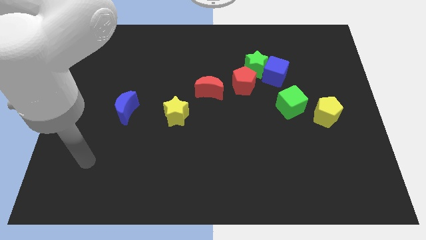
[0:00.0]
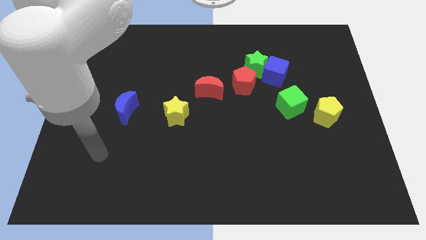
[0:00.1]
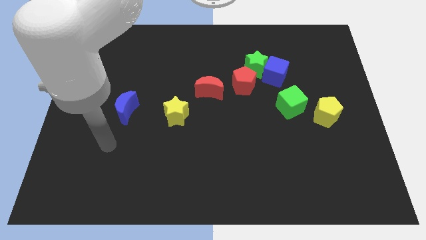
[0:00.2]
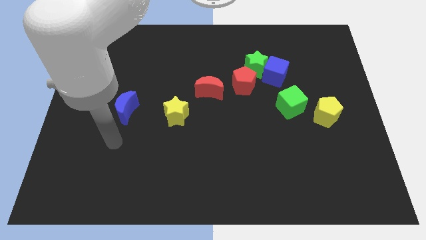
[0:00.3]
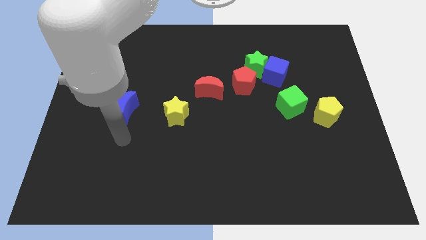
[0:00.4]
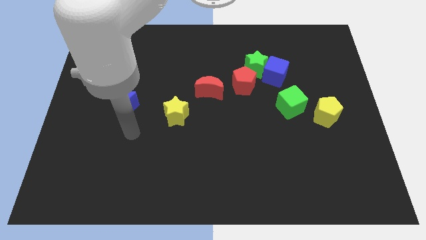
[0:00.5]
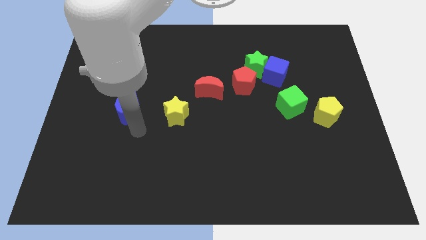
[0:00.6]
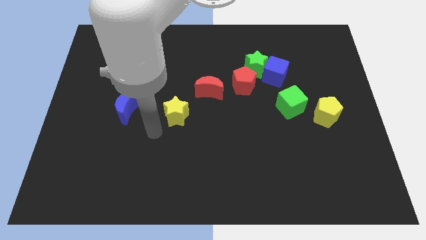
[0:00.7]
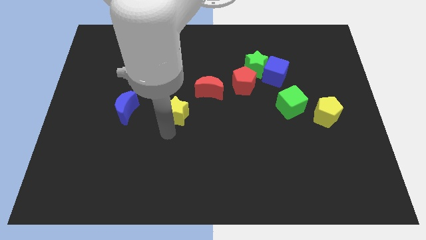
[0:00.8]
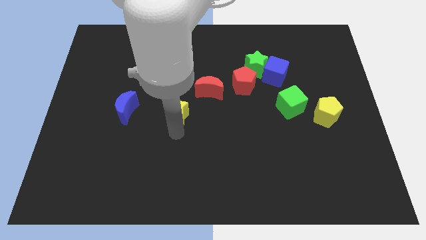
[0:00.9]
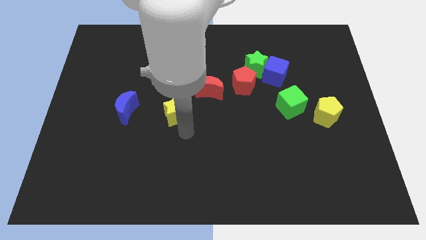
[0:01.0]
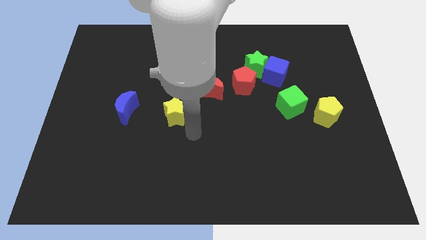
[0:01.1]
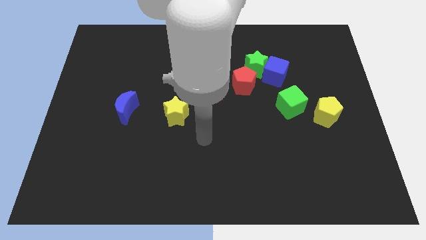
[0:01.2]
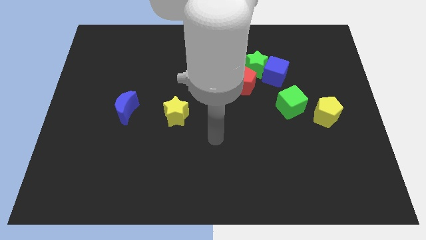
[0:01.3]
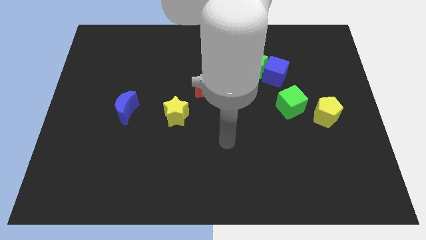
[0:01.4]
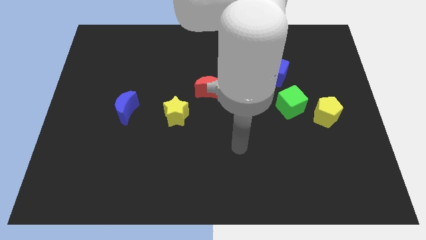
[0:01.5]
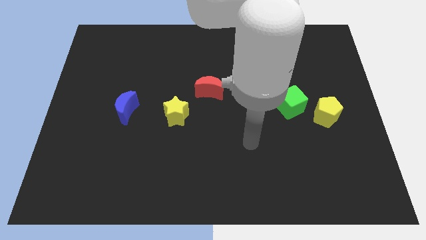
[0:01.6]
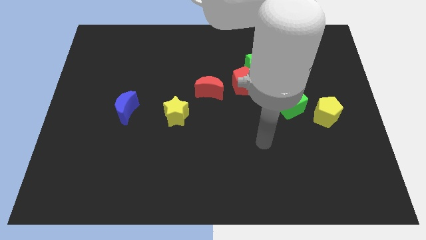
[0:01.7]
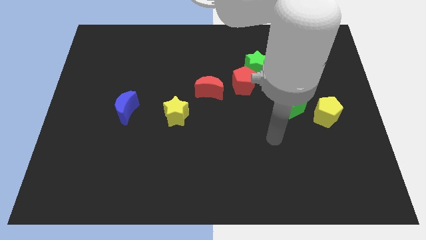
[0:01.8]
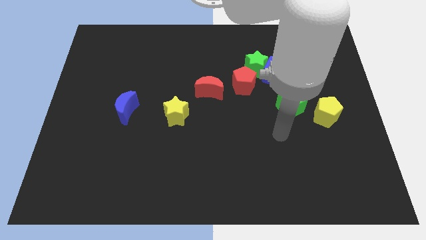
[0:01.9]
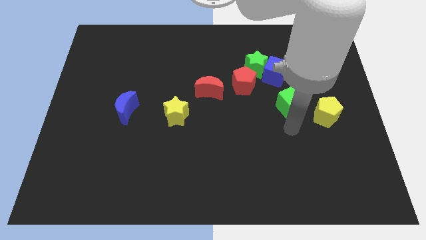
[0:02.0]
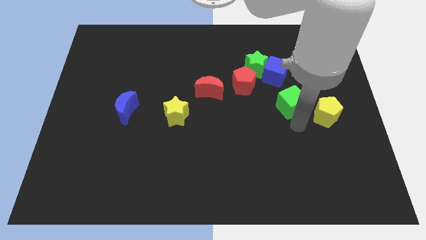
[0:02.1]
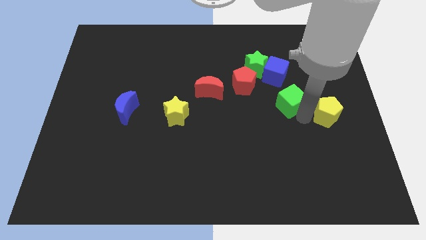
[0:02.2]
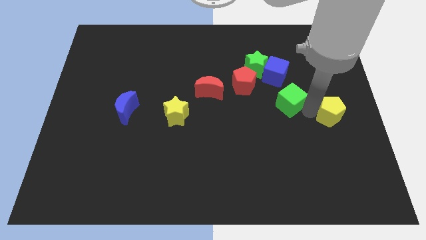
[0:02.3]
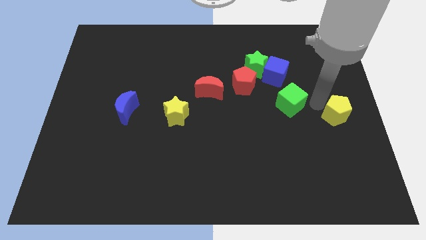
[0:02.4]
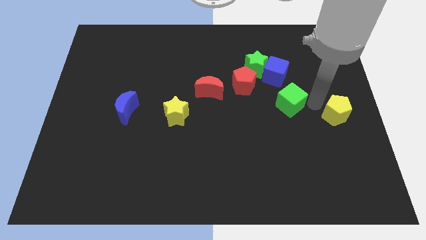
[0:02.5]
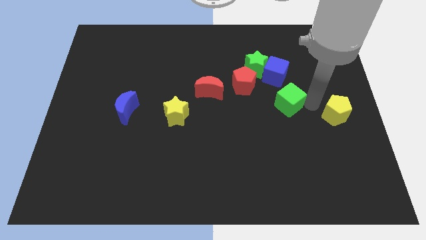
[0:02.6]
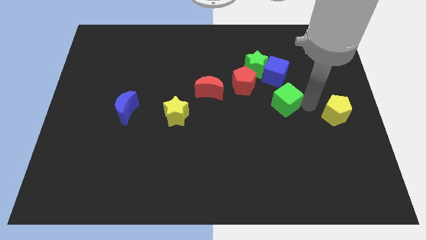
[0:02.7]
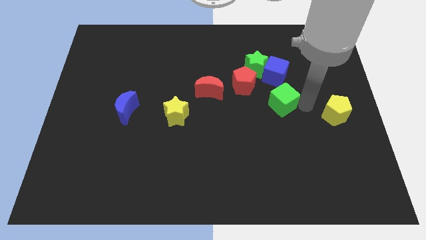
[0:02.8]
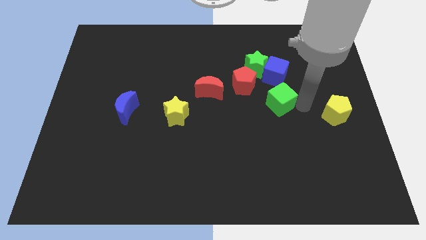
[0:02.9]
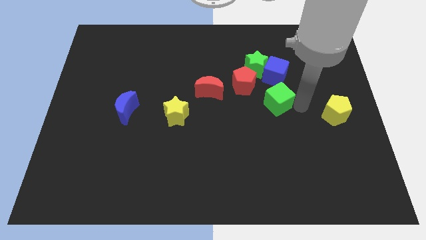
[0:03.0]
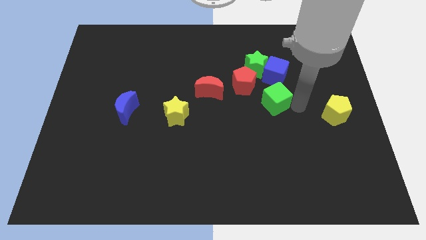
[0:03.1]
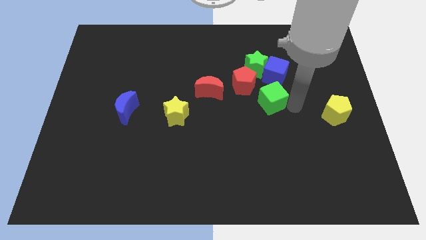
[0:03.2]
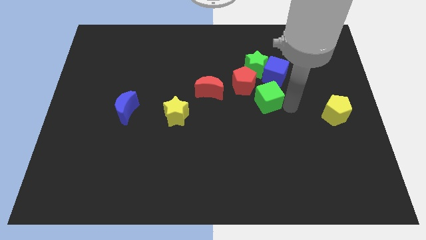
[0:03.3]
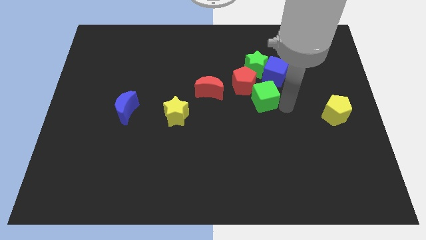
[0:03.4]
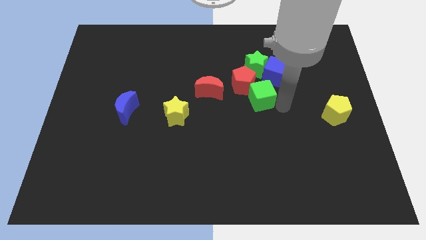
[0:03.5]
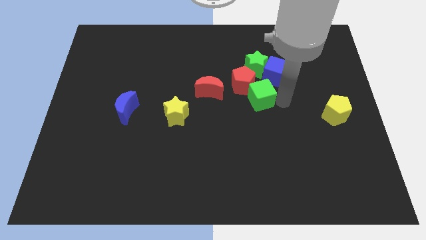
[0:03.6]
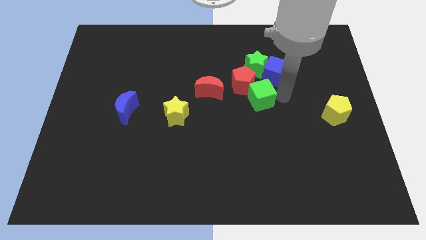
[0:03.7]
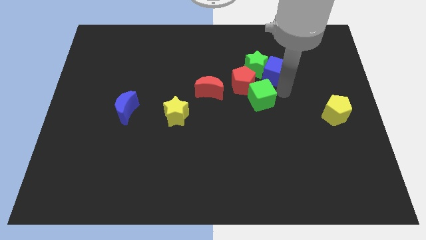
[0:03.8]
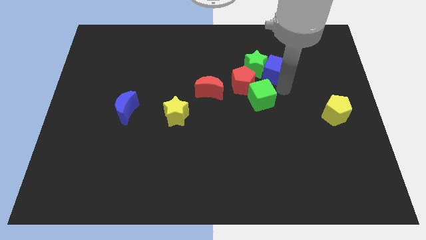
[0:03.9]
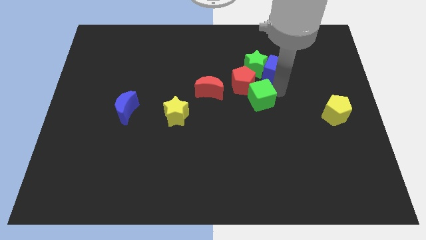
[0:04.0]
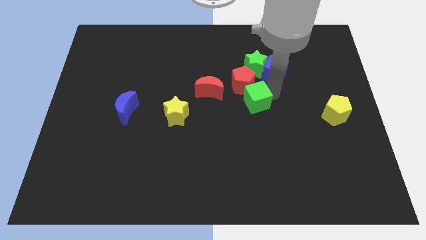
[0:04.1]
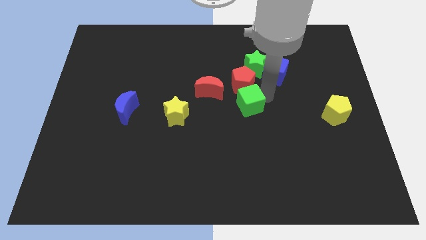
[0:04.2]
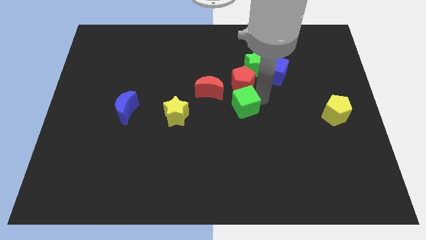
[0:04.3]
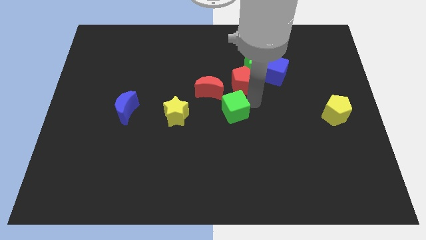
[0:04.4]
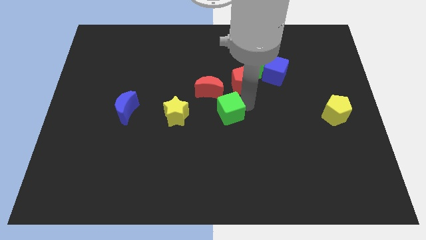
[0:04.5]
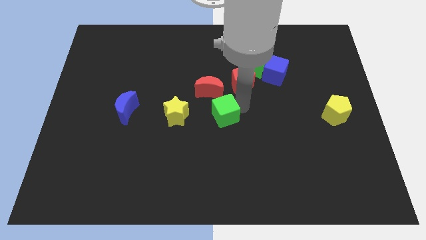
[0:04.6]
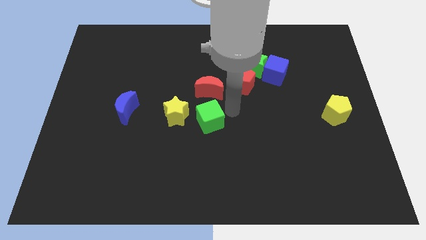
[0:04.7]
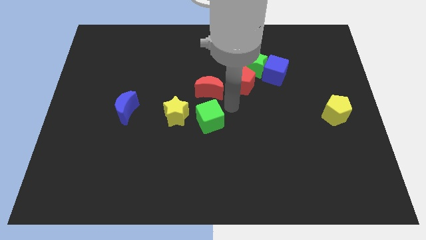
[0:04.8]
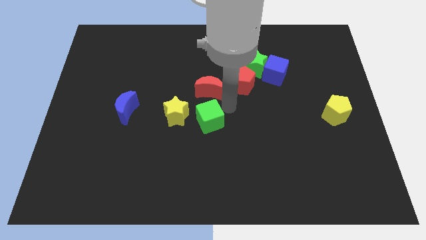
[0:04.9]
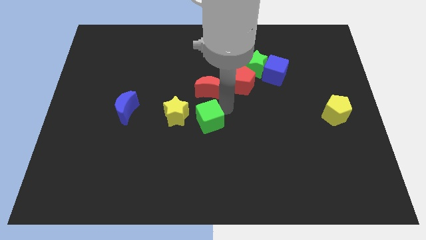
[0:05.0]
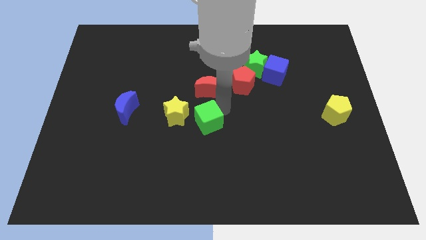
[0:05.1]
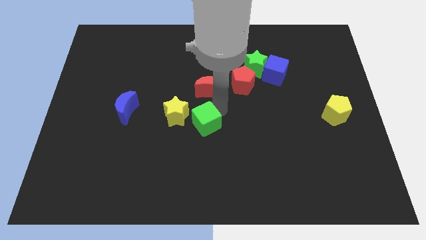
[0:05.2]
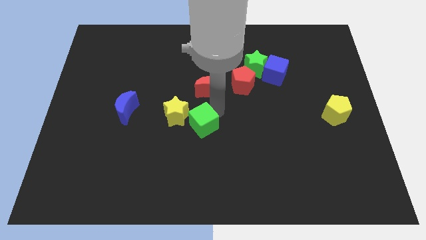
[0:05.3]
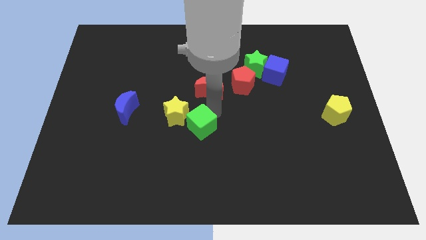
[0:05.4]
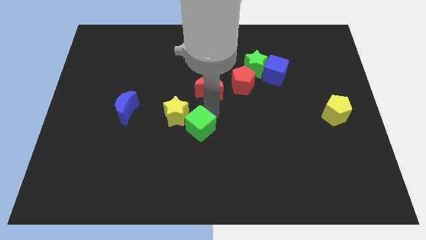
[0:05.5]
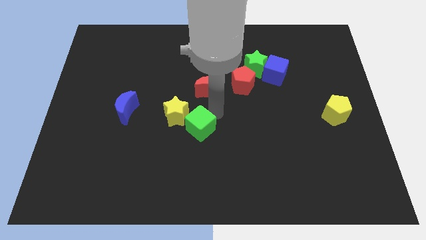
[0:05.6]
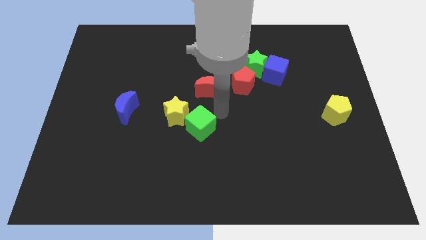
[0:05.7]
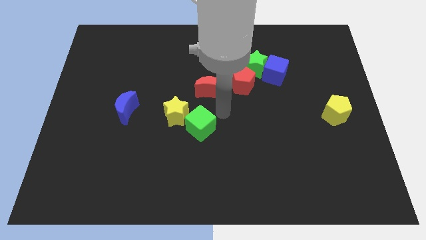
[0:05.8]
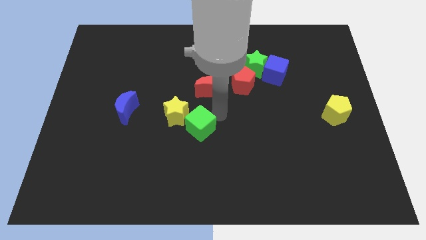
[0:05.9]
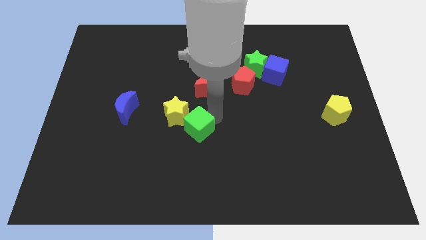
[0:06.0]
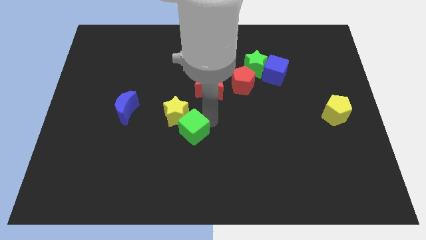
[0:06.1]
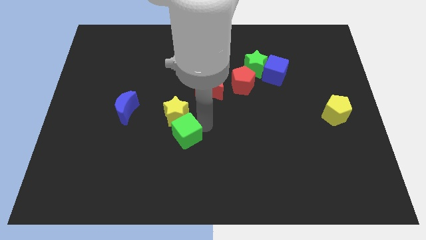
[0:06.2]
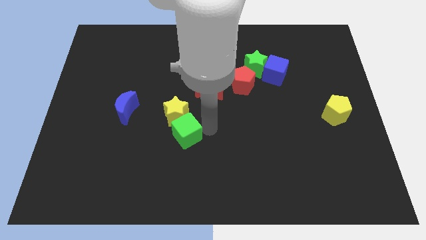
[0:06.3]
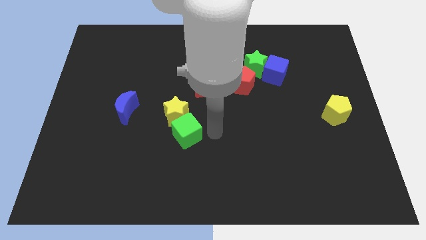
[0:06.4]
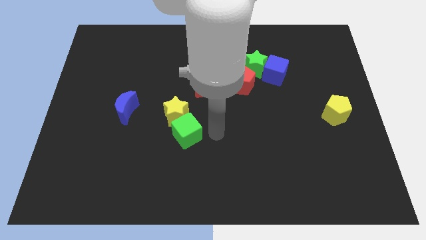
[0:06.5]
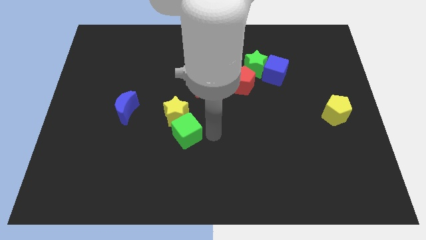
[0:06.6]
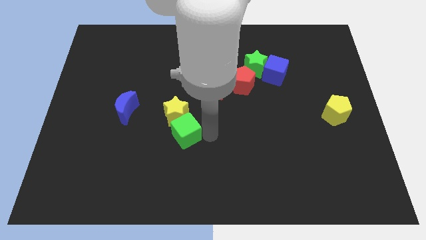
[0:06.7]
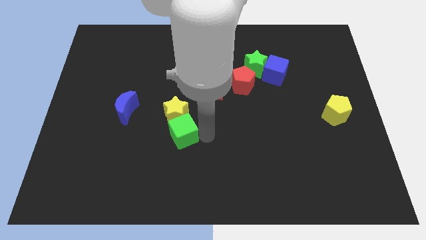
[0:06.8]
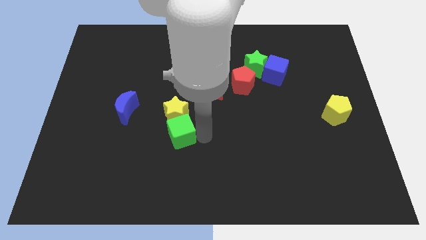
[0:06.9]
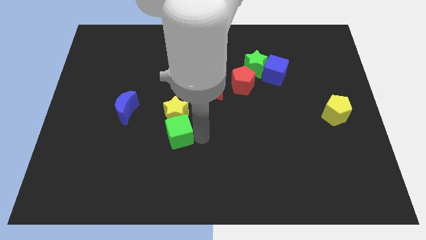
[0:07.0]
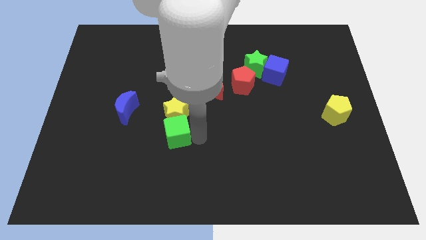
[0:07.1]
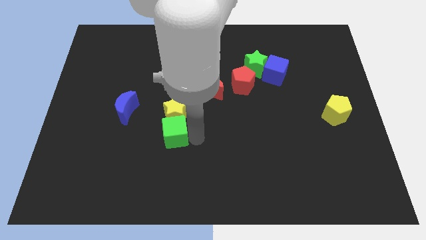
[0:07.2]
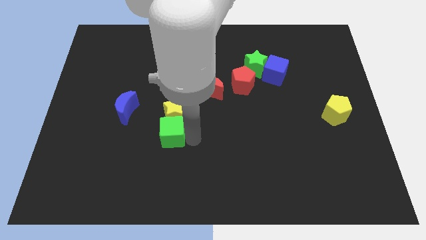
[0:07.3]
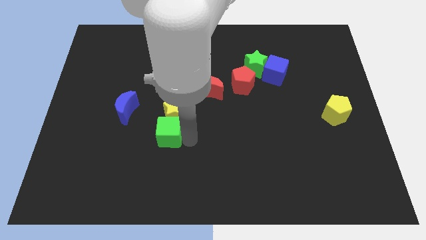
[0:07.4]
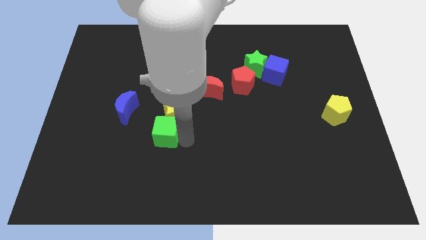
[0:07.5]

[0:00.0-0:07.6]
put the green cube to the bottom right side of the blue moon
